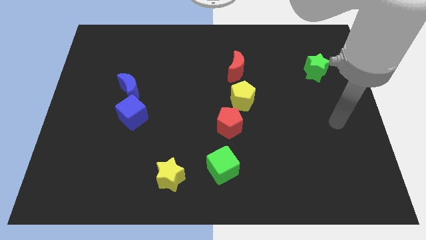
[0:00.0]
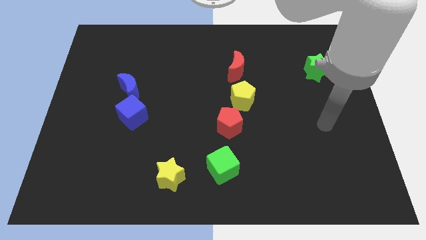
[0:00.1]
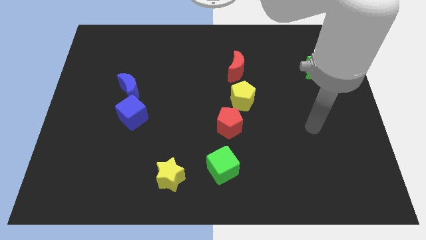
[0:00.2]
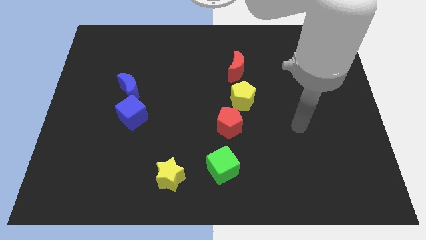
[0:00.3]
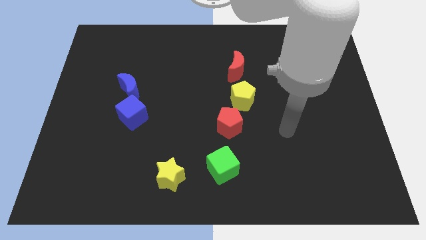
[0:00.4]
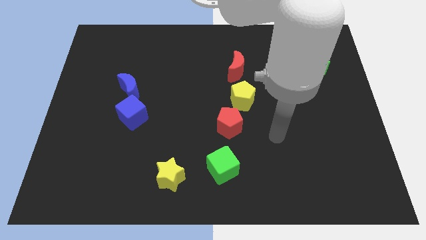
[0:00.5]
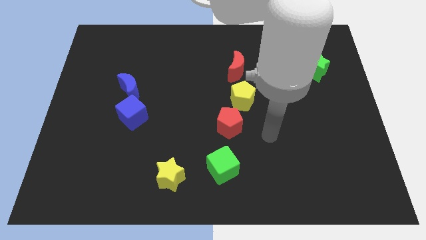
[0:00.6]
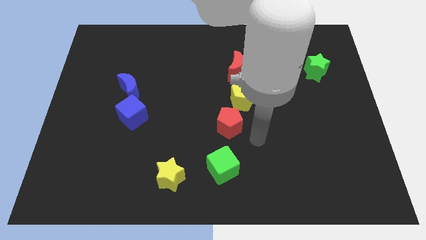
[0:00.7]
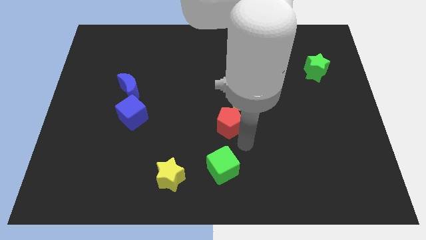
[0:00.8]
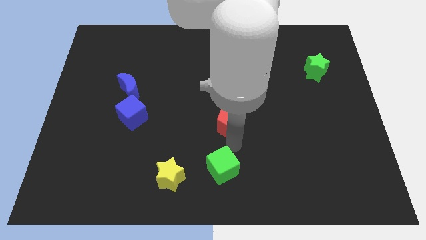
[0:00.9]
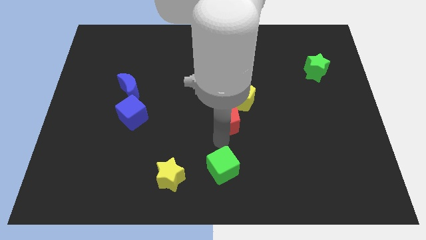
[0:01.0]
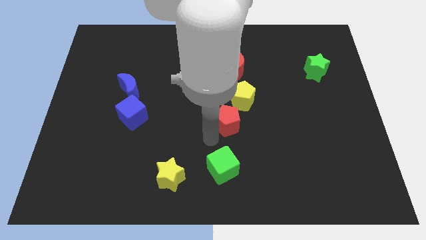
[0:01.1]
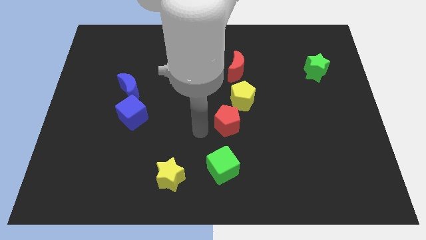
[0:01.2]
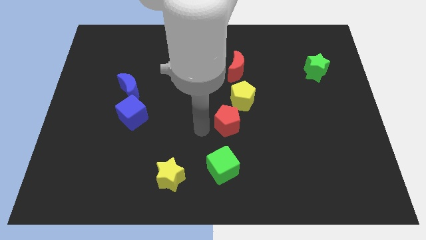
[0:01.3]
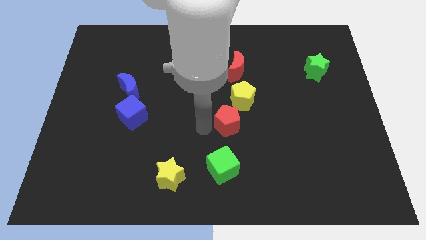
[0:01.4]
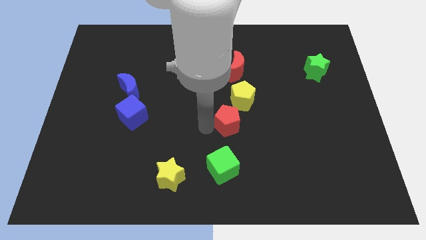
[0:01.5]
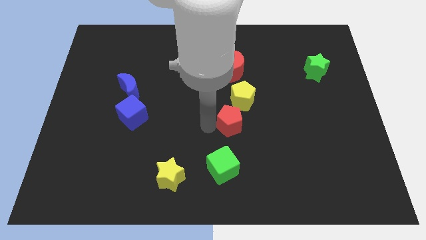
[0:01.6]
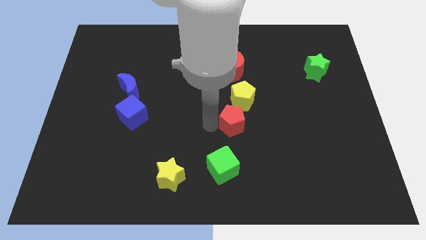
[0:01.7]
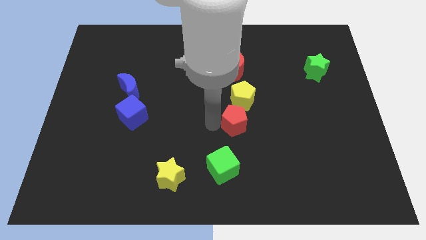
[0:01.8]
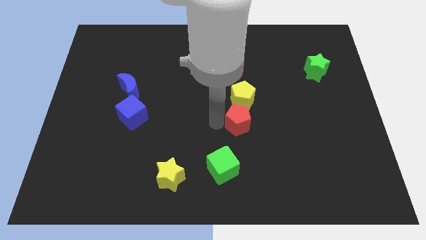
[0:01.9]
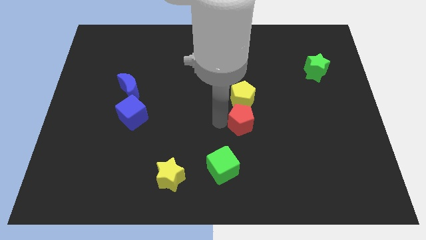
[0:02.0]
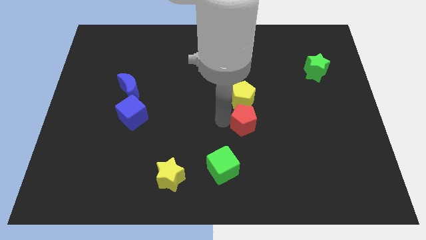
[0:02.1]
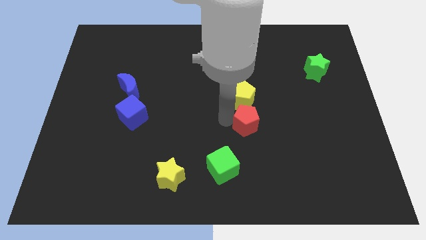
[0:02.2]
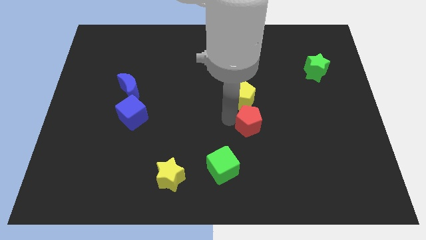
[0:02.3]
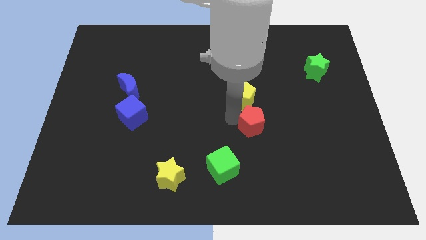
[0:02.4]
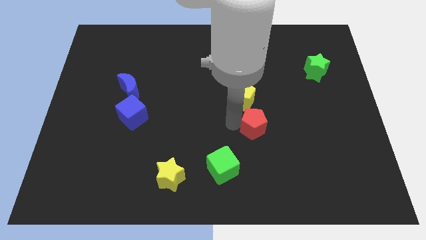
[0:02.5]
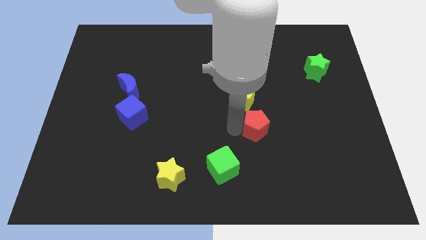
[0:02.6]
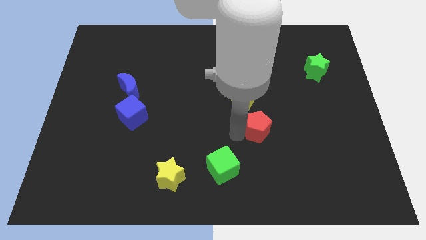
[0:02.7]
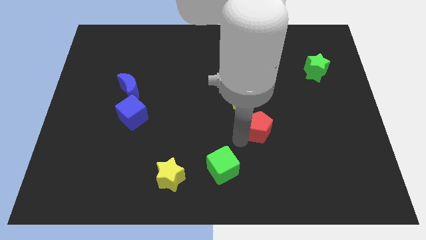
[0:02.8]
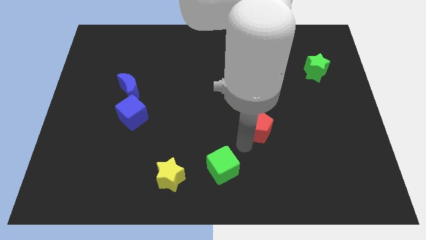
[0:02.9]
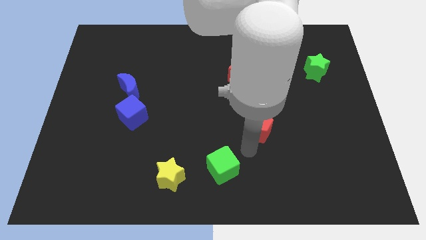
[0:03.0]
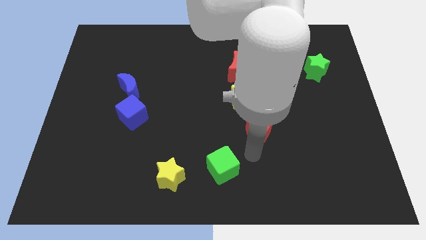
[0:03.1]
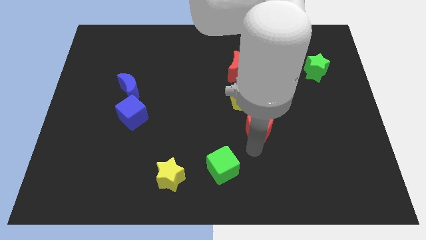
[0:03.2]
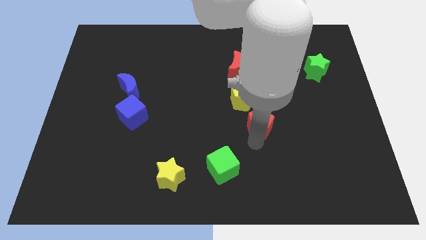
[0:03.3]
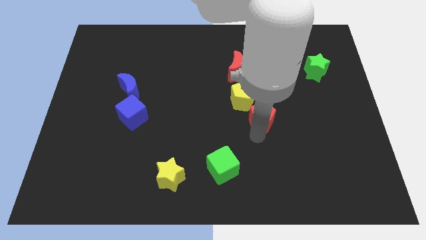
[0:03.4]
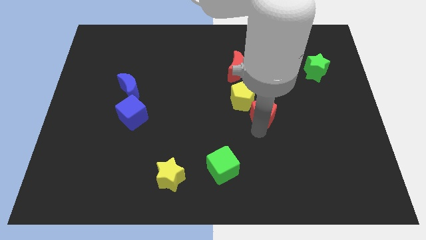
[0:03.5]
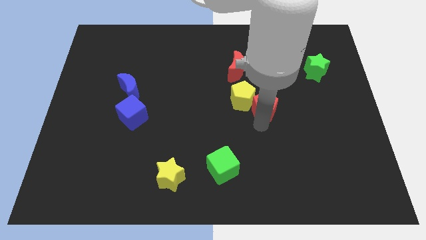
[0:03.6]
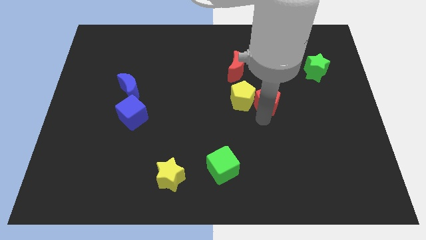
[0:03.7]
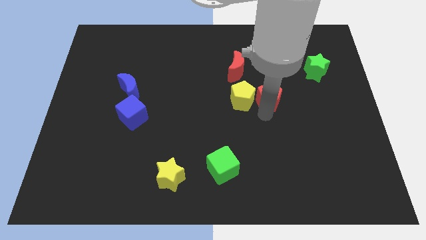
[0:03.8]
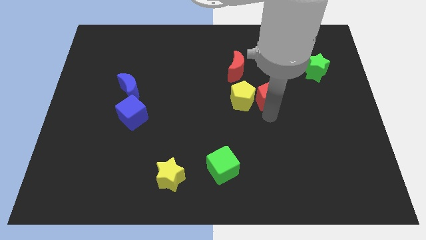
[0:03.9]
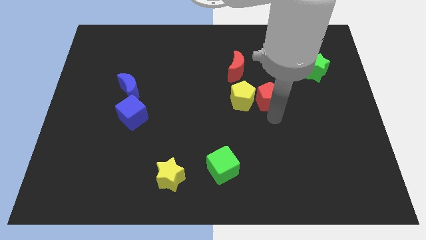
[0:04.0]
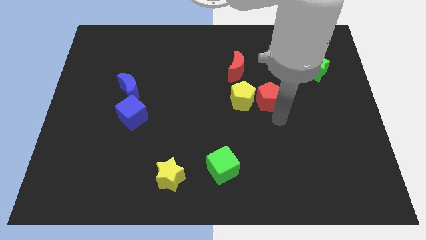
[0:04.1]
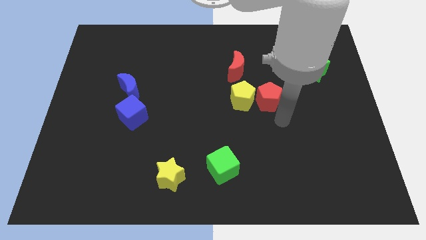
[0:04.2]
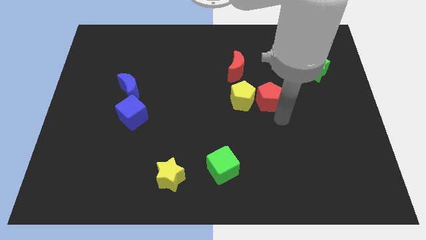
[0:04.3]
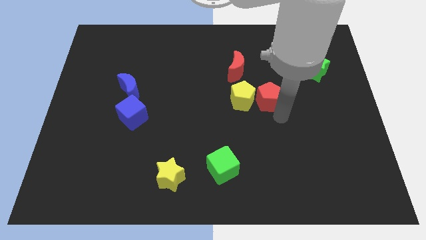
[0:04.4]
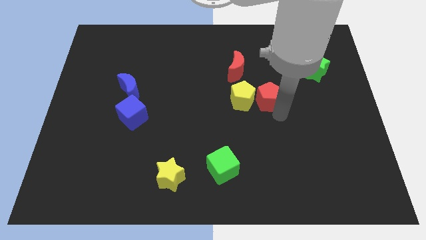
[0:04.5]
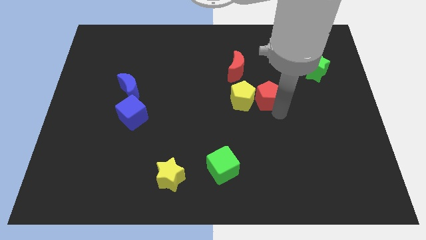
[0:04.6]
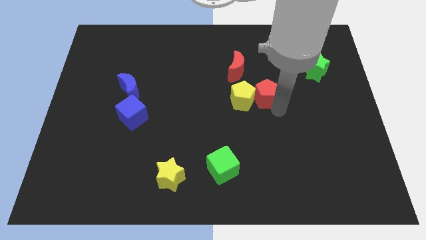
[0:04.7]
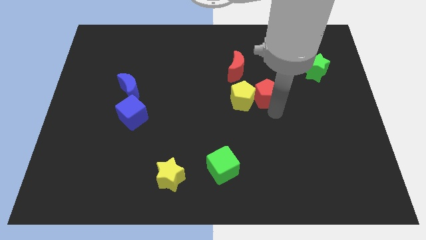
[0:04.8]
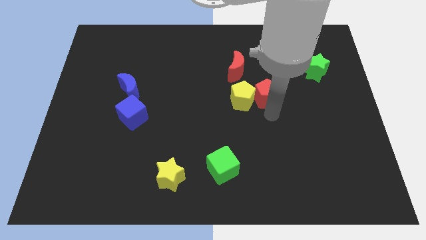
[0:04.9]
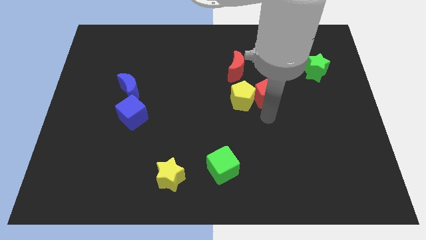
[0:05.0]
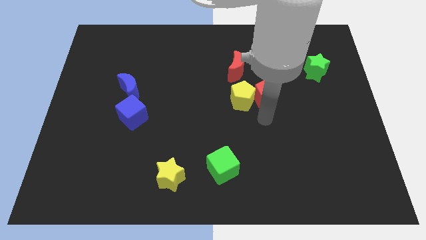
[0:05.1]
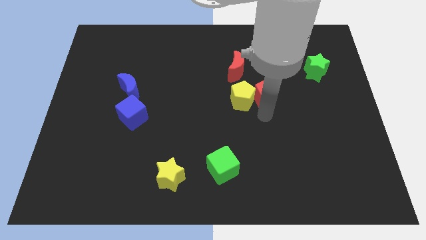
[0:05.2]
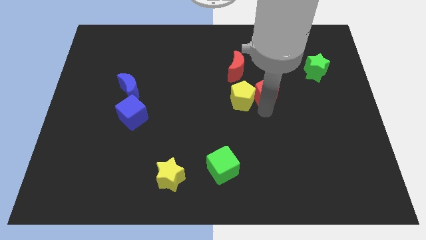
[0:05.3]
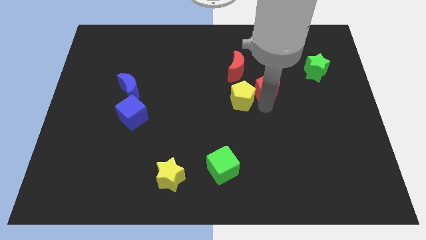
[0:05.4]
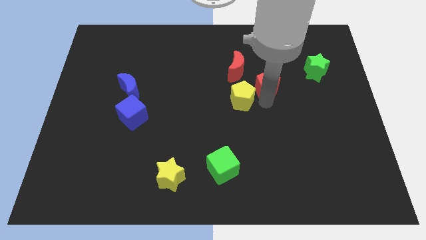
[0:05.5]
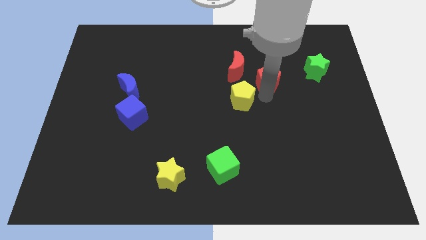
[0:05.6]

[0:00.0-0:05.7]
slide the red pentagon to the left of the green star

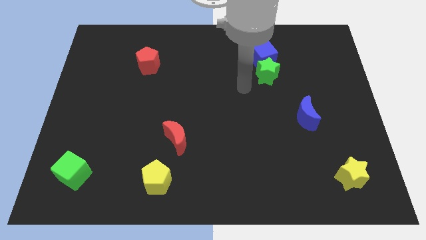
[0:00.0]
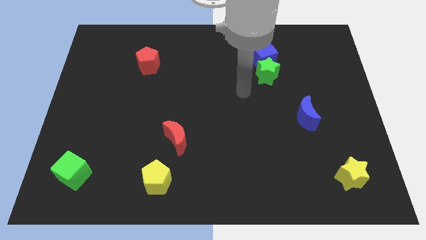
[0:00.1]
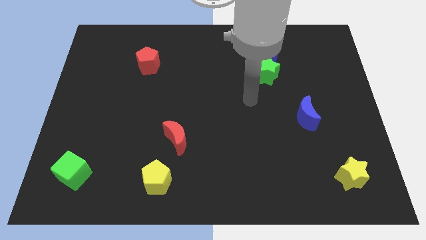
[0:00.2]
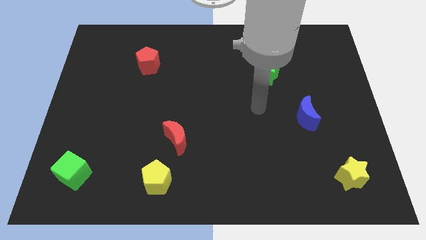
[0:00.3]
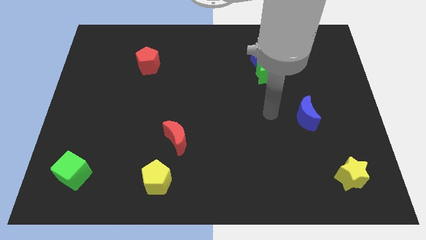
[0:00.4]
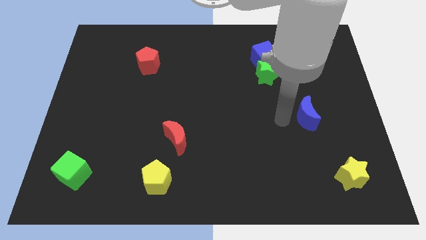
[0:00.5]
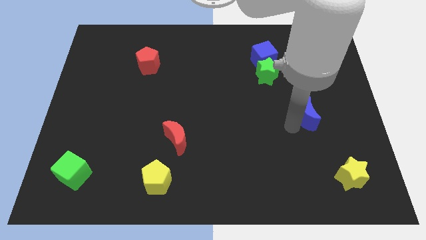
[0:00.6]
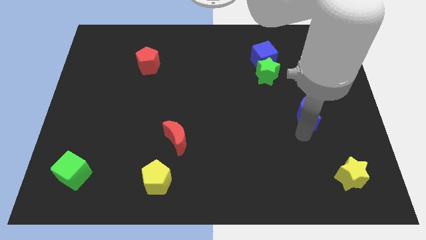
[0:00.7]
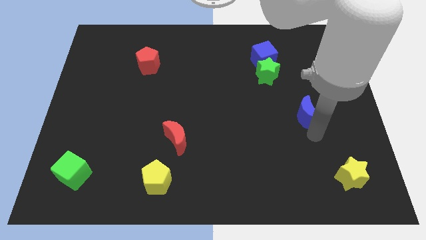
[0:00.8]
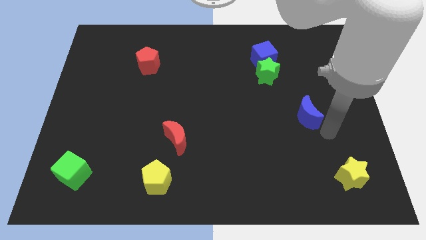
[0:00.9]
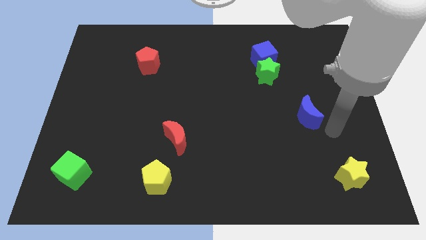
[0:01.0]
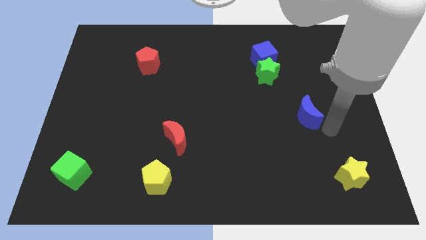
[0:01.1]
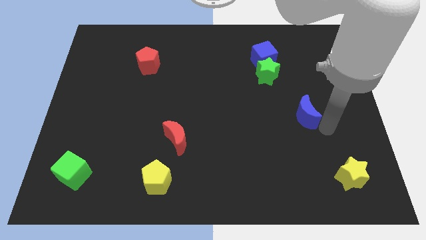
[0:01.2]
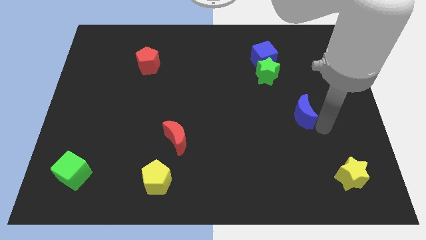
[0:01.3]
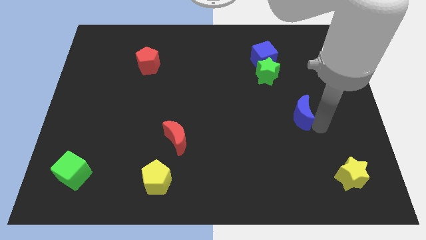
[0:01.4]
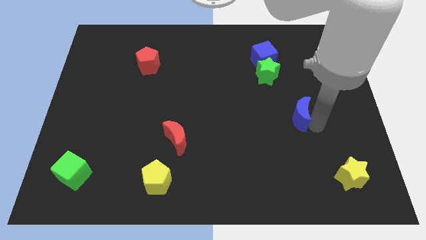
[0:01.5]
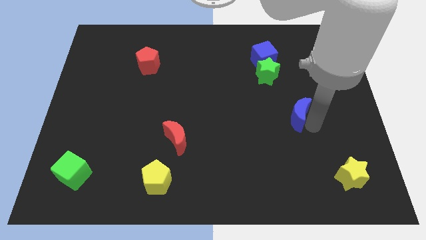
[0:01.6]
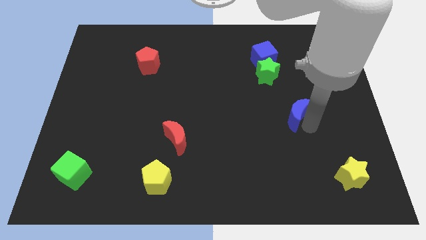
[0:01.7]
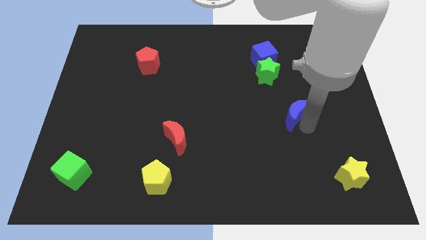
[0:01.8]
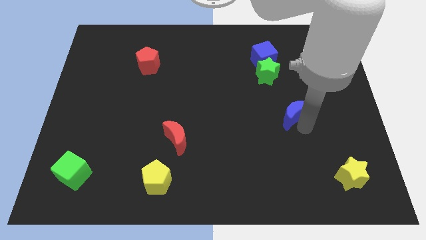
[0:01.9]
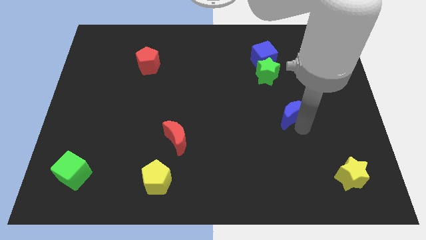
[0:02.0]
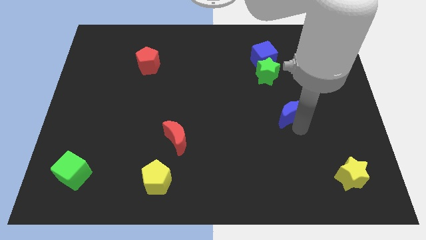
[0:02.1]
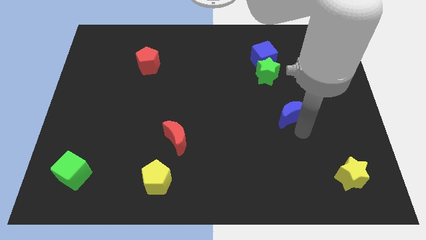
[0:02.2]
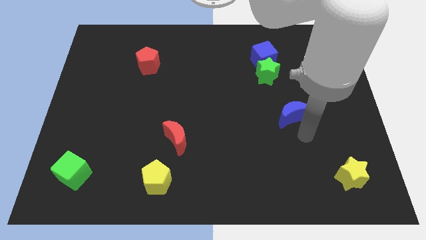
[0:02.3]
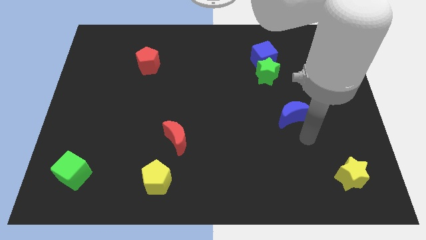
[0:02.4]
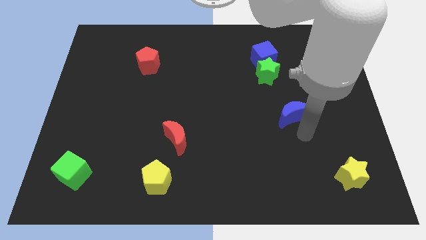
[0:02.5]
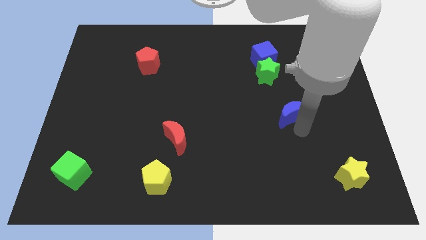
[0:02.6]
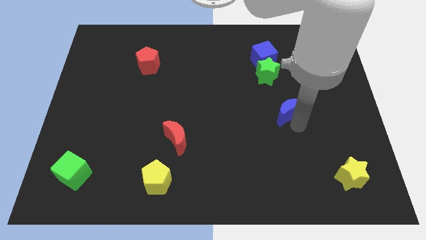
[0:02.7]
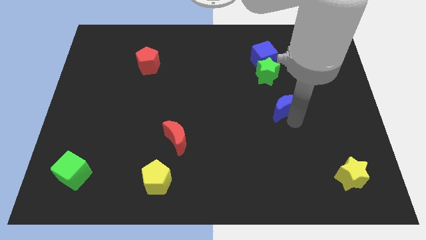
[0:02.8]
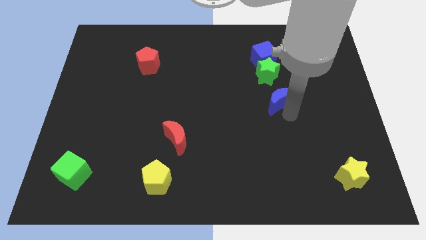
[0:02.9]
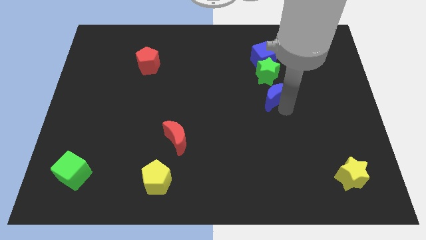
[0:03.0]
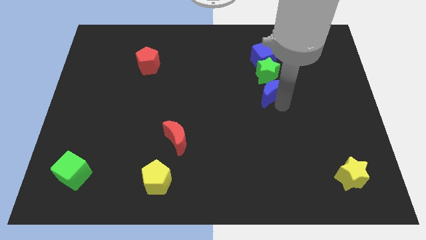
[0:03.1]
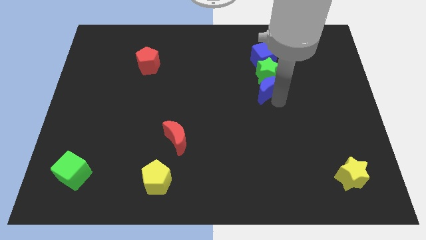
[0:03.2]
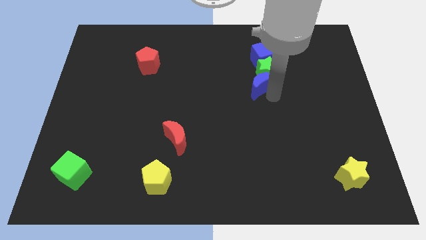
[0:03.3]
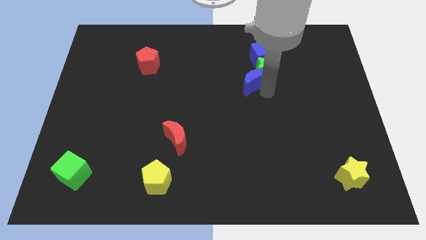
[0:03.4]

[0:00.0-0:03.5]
push the blue moon diagonally down and to the left of the blue cube
